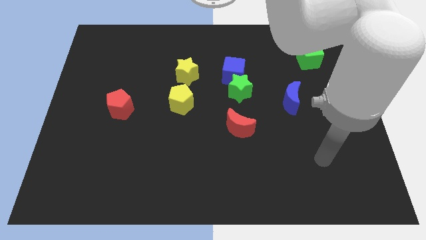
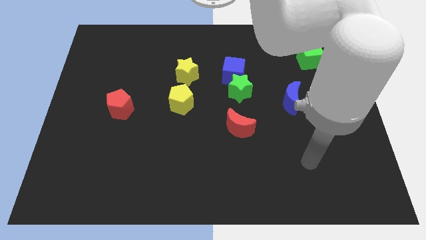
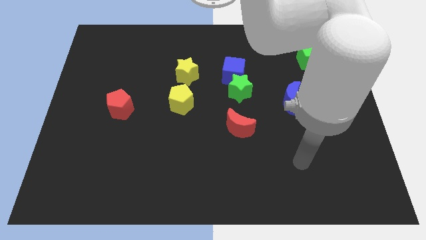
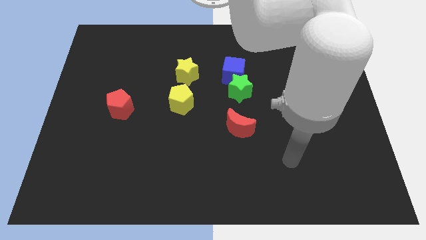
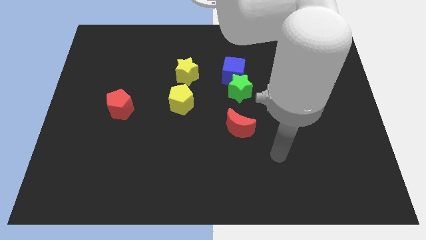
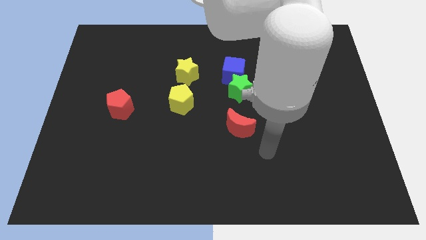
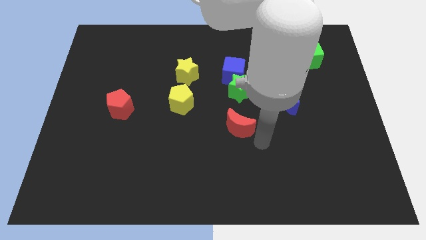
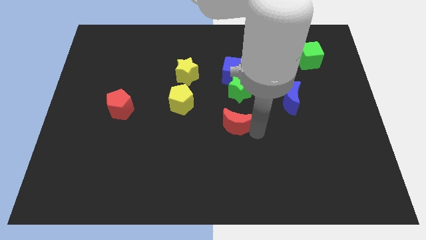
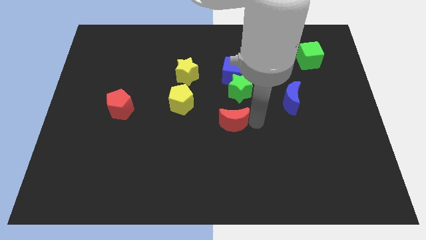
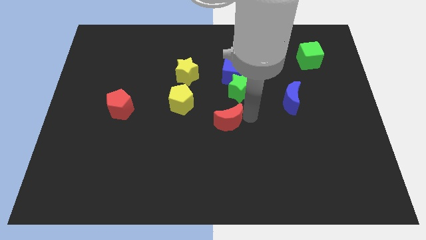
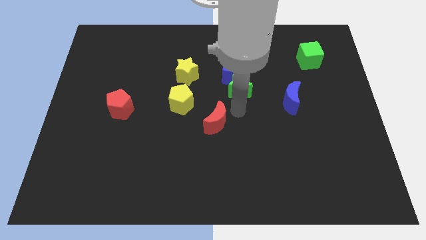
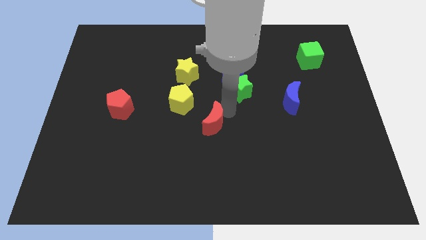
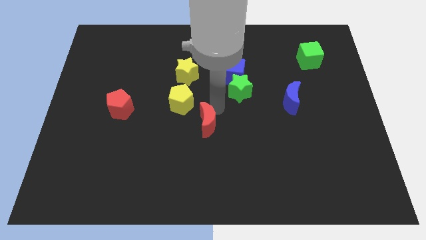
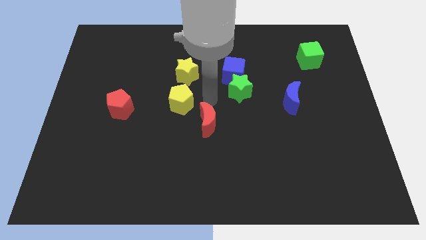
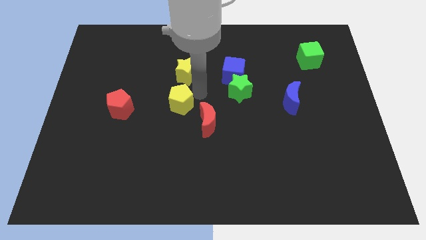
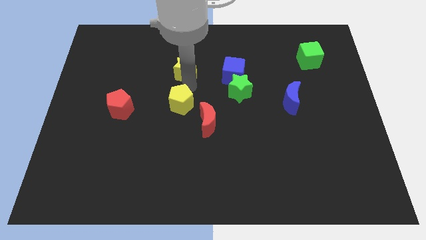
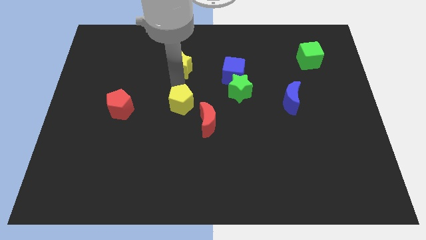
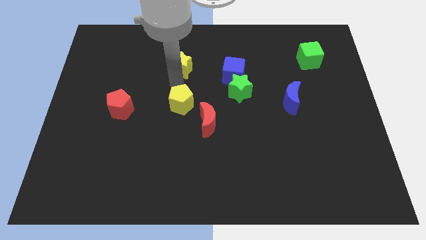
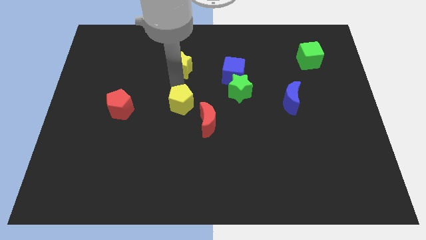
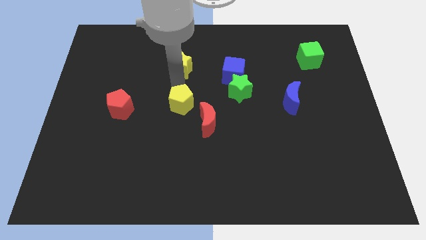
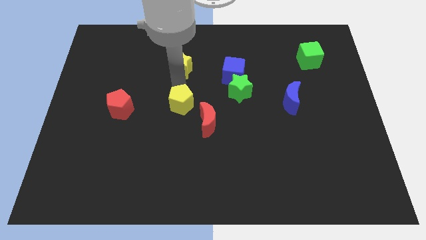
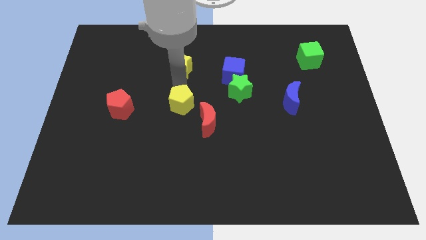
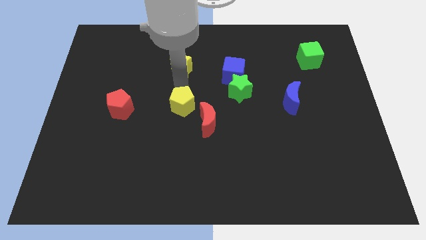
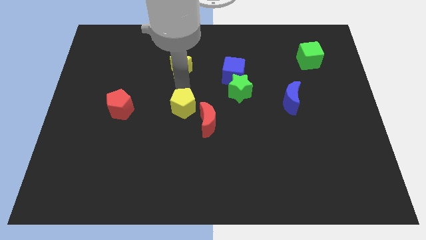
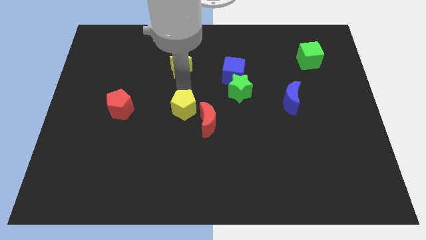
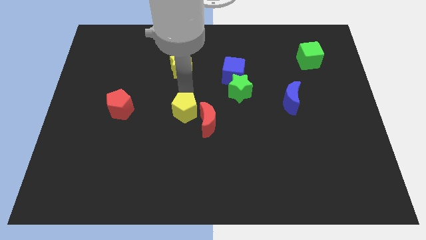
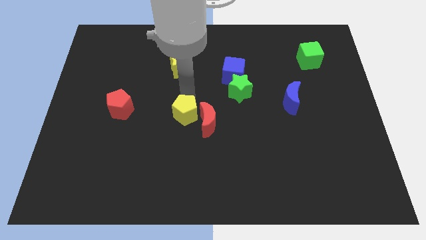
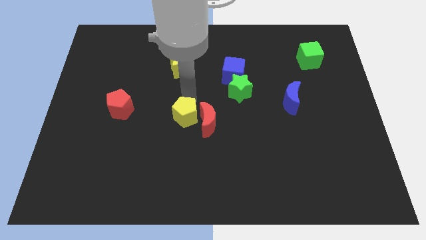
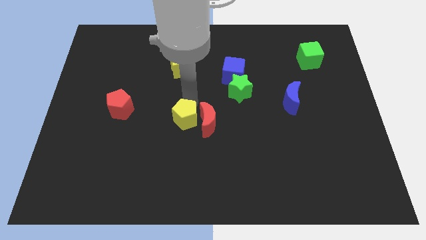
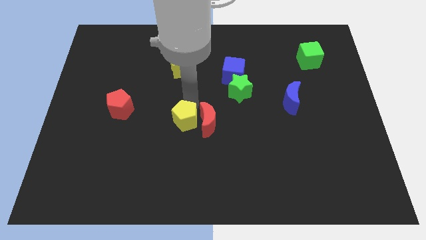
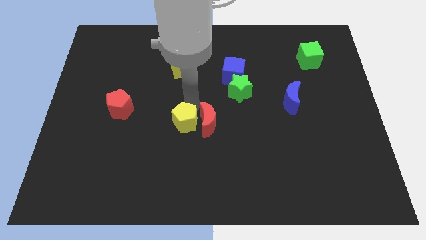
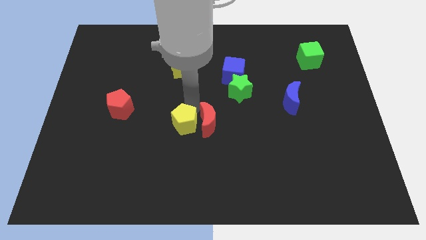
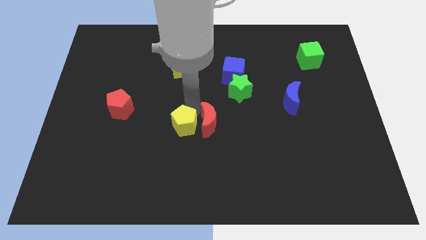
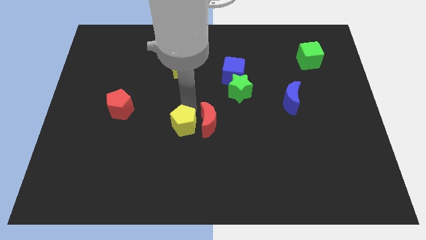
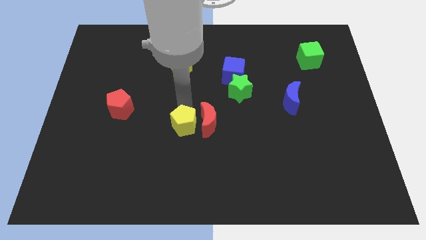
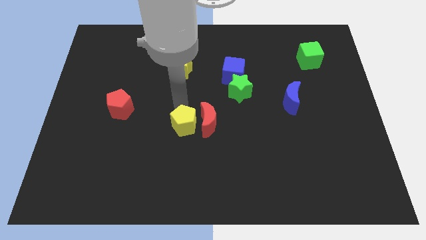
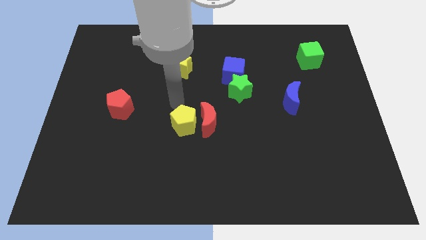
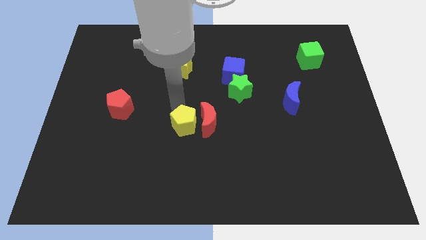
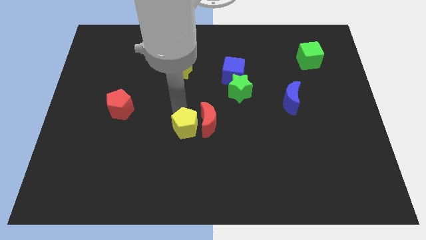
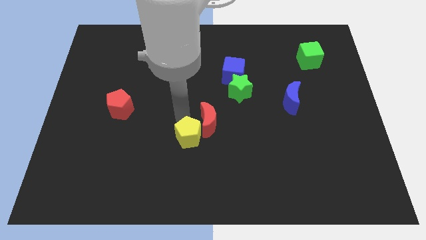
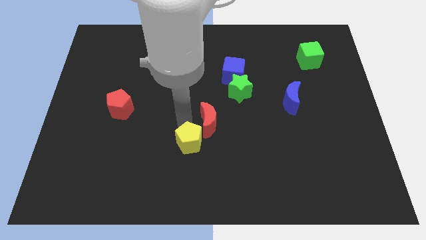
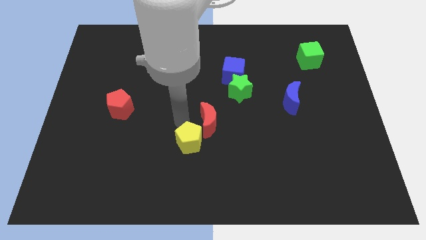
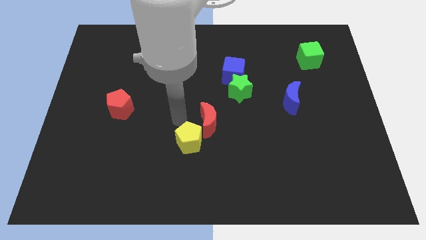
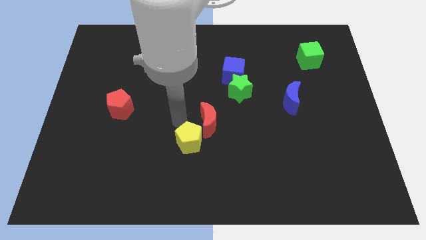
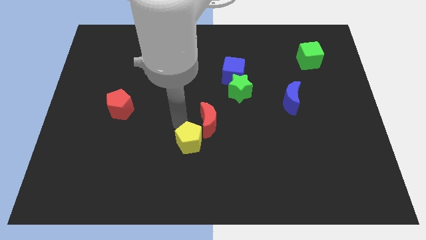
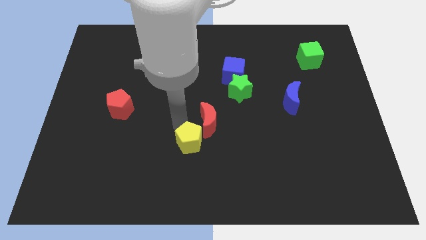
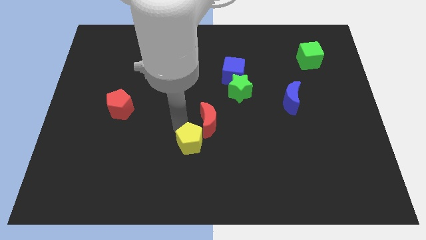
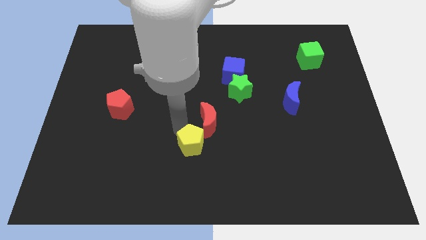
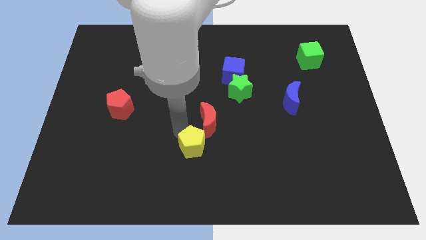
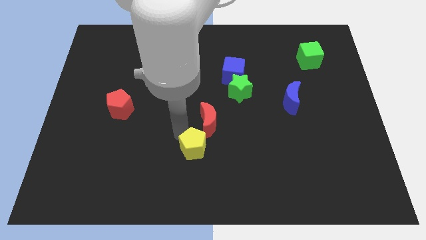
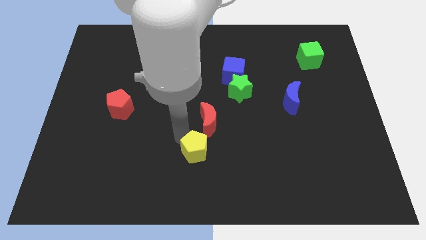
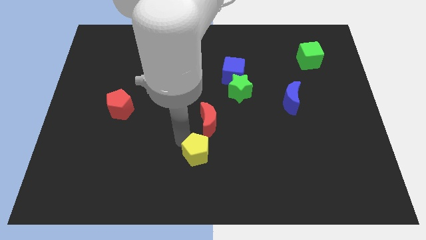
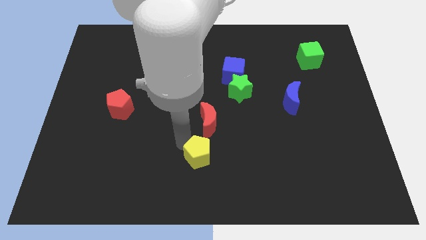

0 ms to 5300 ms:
slide the yellow pentagon to the bottom side

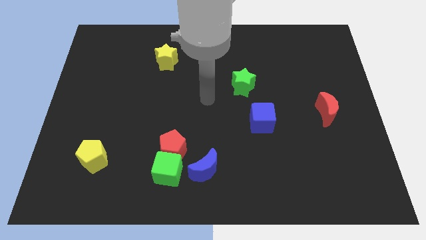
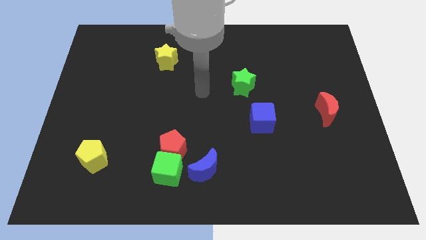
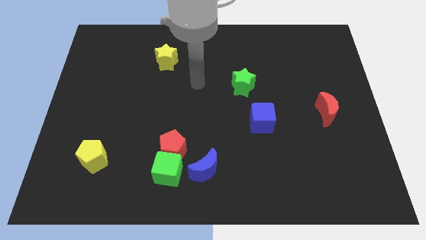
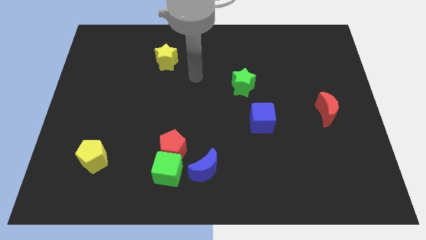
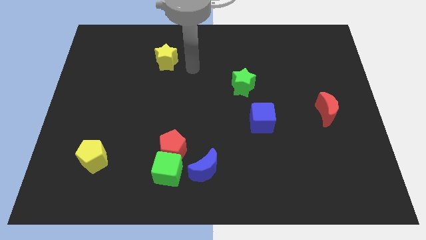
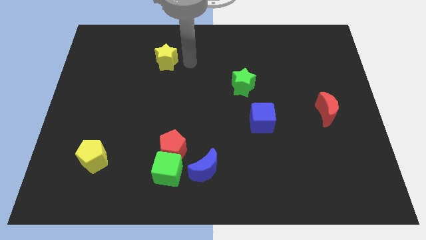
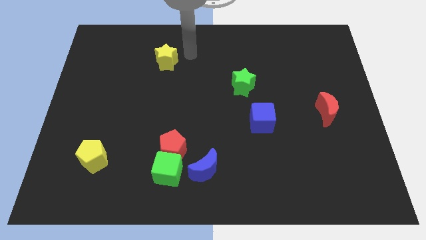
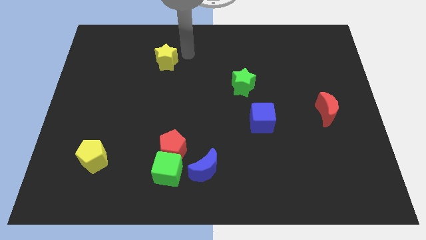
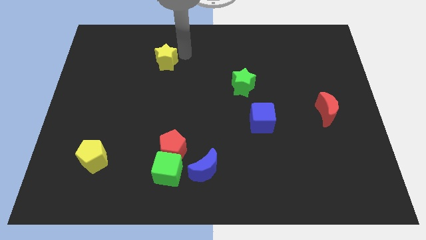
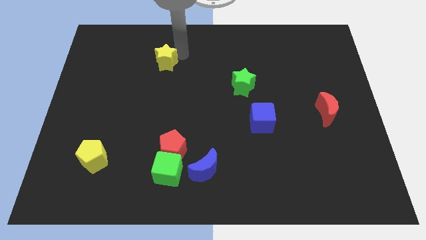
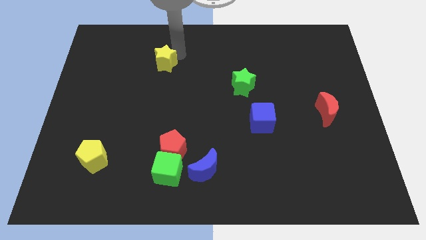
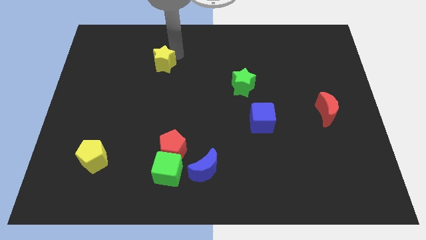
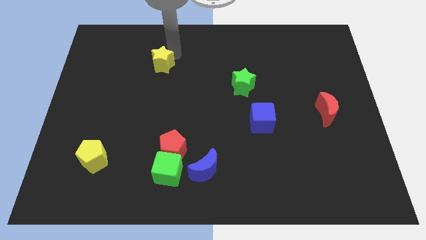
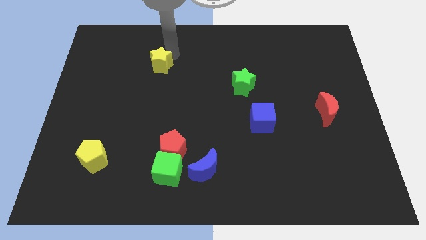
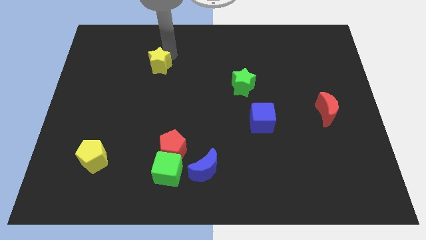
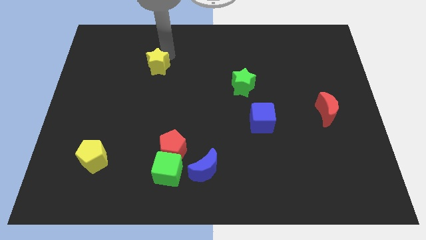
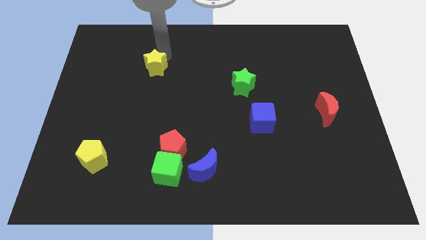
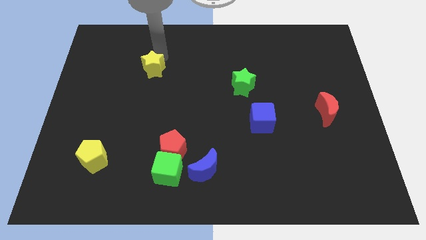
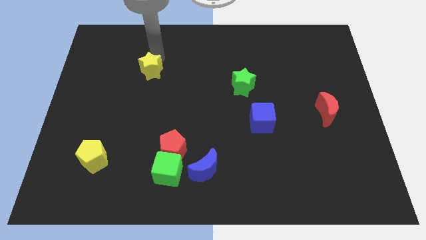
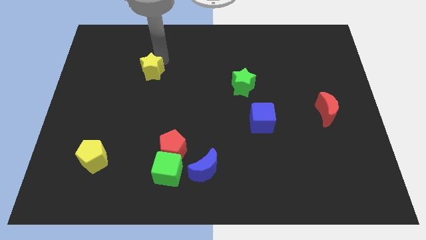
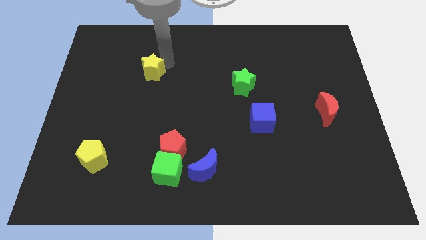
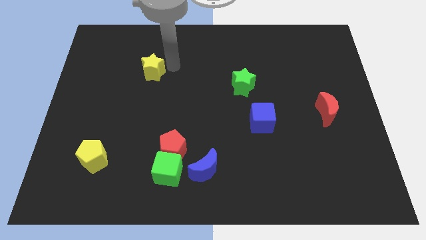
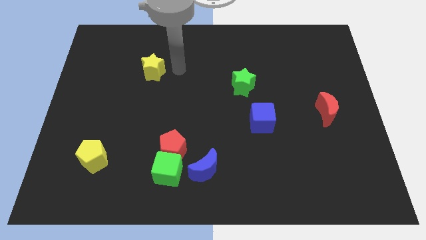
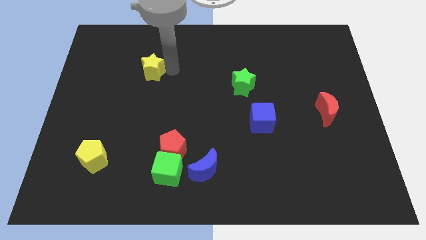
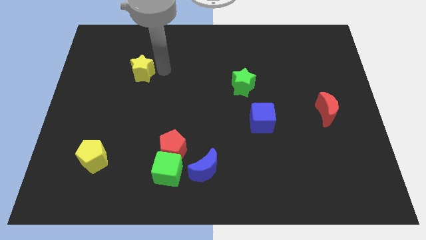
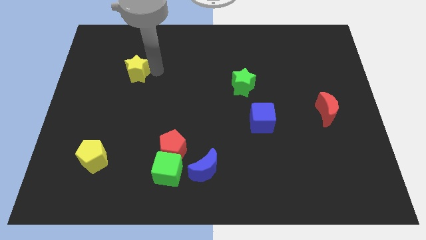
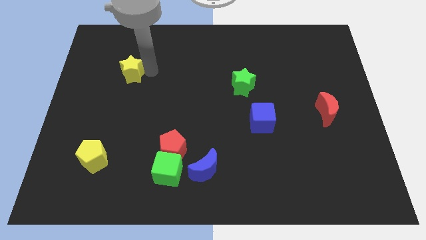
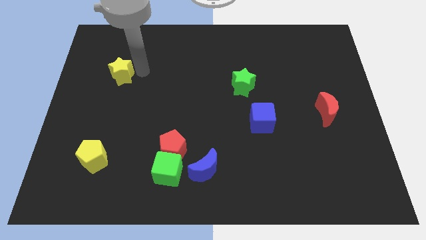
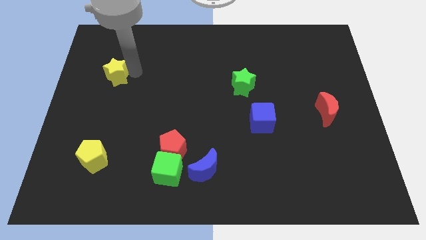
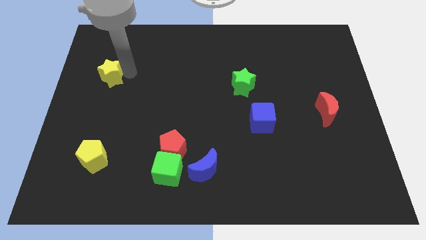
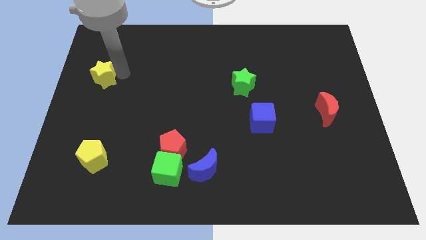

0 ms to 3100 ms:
put the yellow star to the left side of the board
